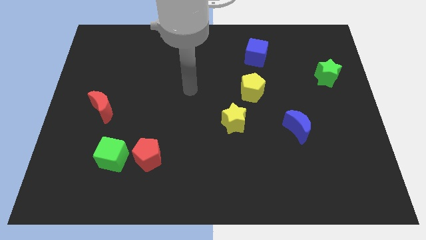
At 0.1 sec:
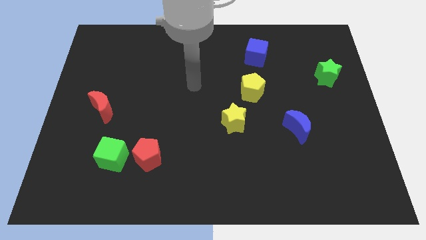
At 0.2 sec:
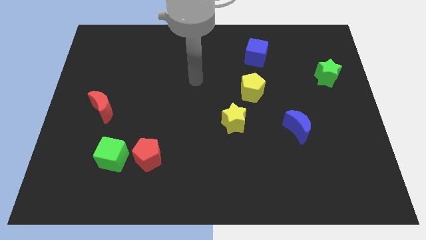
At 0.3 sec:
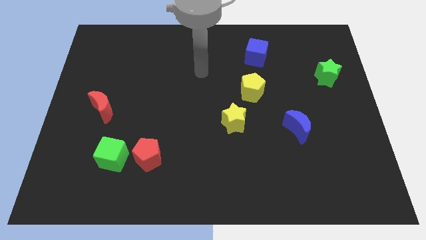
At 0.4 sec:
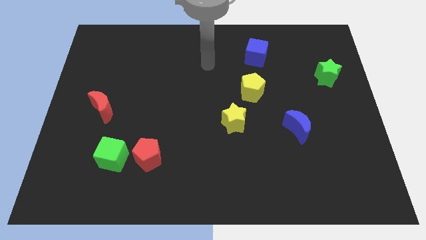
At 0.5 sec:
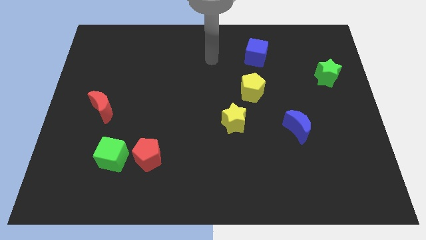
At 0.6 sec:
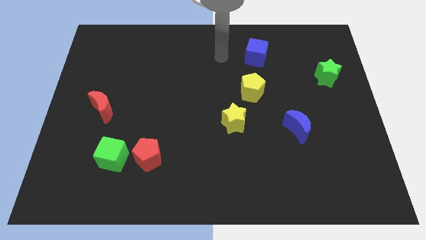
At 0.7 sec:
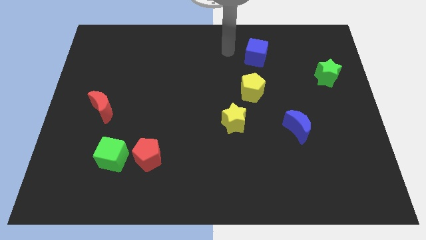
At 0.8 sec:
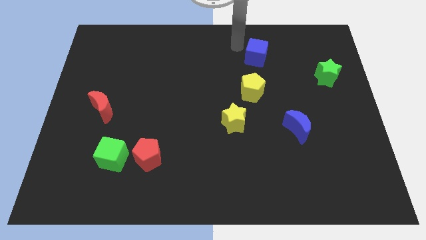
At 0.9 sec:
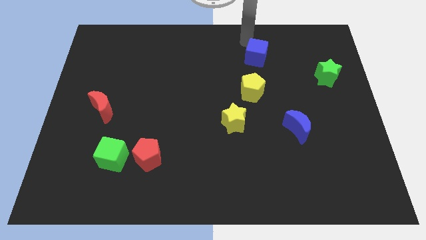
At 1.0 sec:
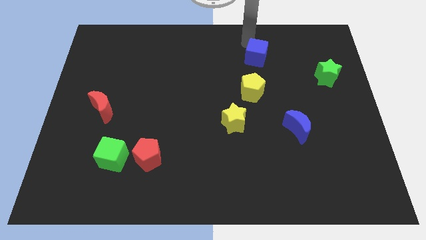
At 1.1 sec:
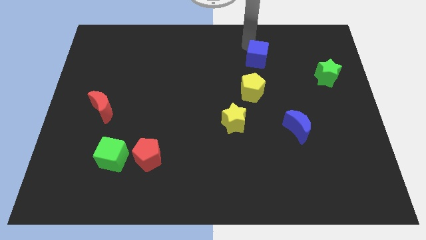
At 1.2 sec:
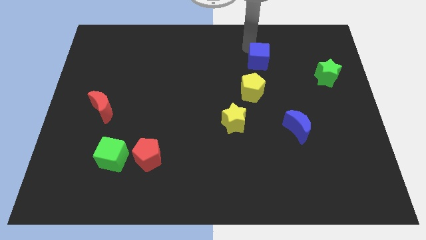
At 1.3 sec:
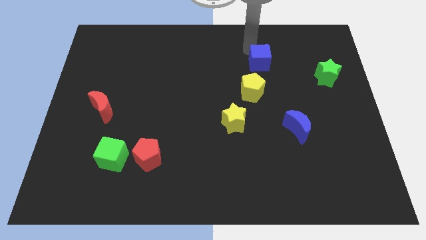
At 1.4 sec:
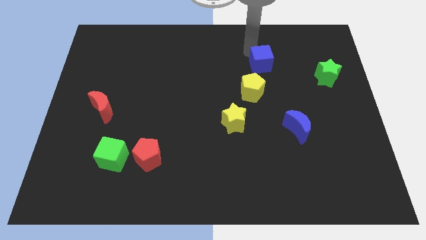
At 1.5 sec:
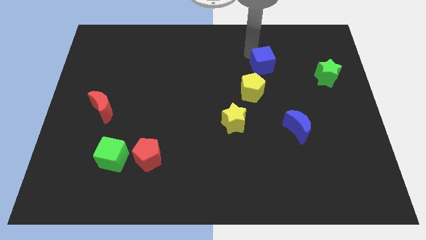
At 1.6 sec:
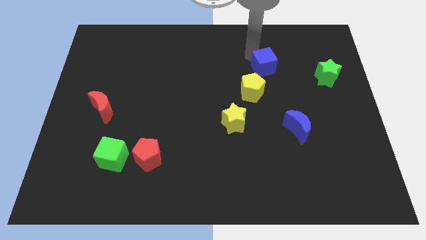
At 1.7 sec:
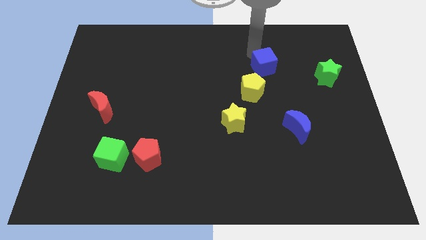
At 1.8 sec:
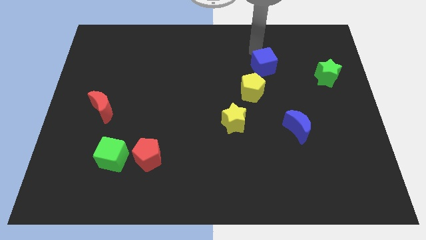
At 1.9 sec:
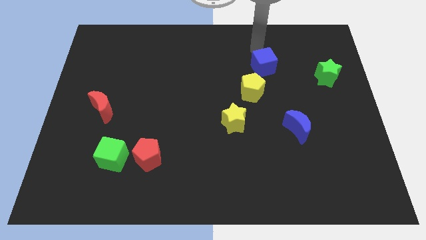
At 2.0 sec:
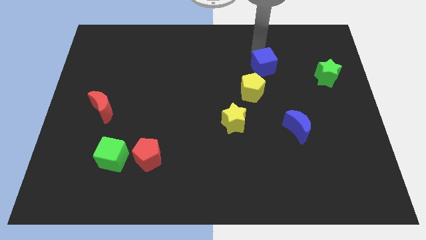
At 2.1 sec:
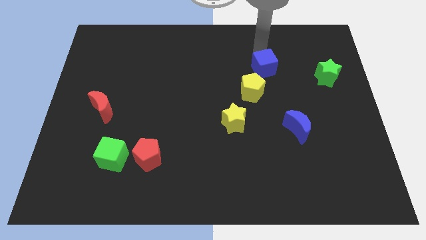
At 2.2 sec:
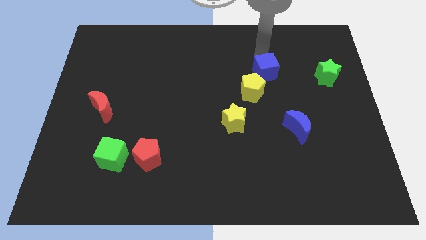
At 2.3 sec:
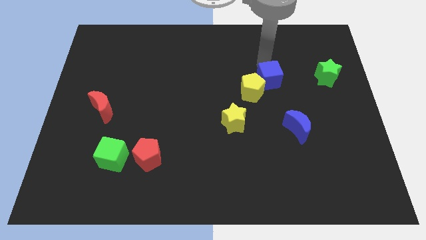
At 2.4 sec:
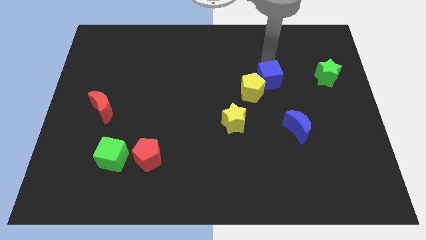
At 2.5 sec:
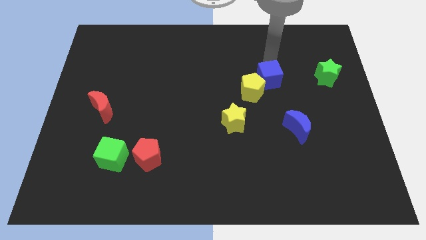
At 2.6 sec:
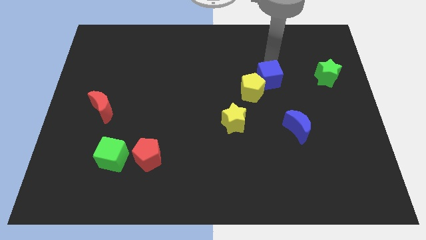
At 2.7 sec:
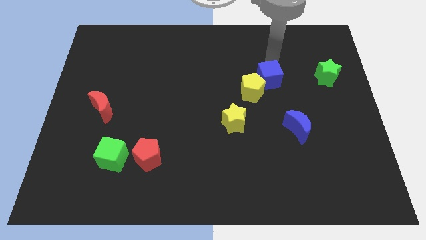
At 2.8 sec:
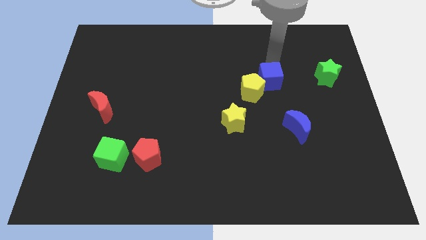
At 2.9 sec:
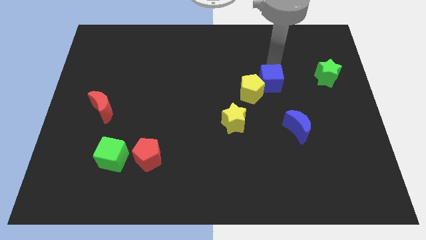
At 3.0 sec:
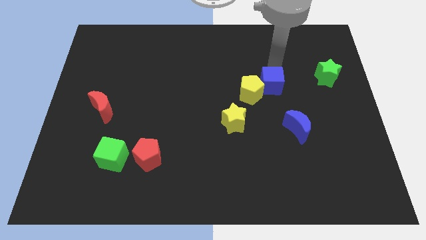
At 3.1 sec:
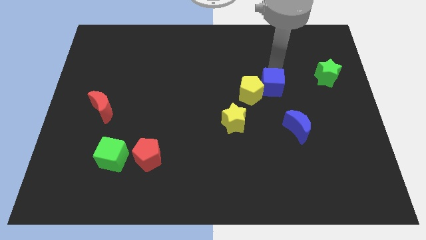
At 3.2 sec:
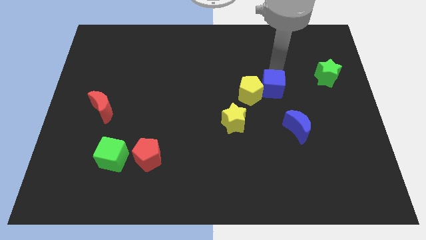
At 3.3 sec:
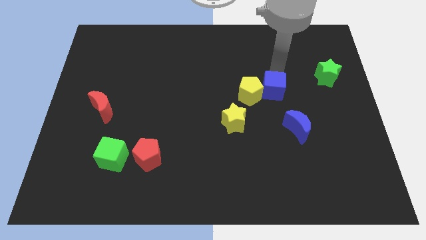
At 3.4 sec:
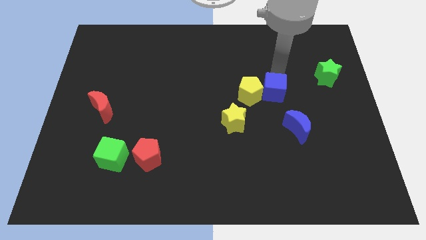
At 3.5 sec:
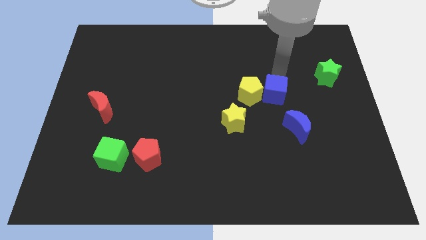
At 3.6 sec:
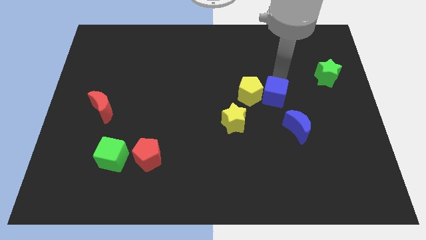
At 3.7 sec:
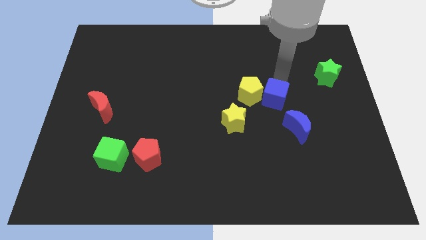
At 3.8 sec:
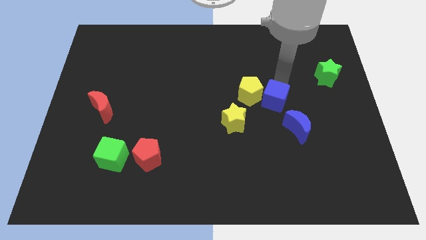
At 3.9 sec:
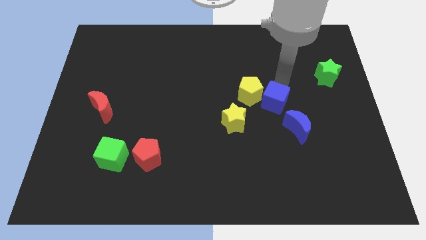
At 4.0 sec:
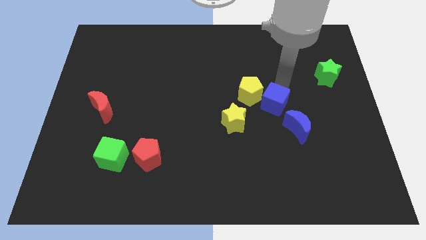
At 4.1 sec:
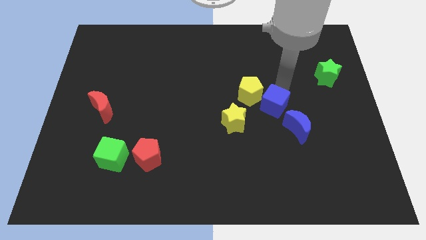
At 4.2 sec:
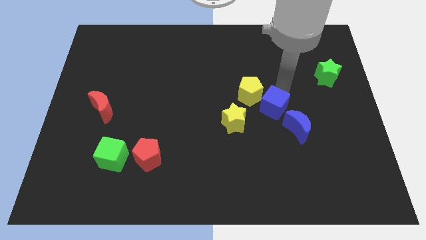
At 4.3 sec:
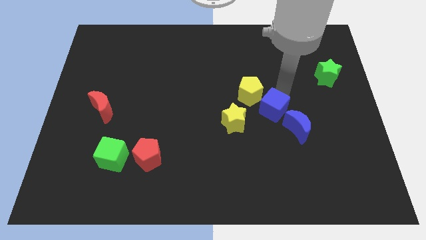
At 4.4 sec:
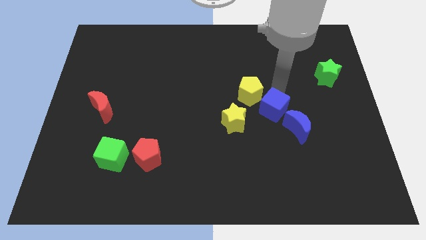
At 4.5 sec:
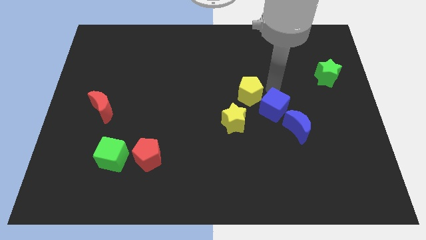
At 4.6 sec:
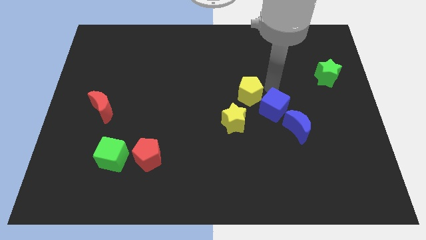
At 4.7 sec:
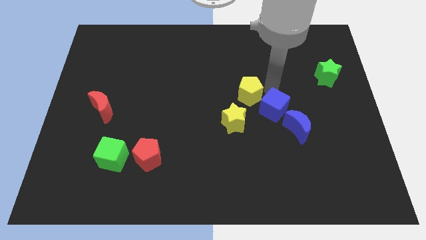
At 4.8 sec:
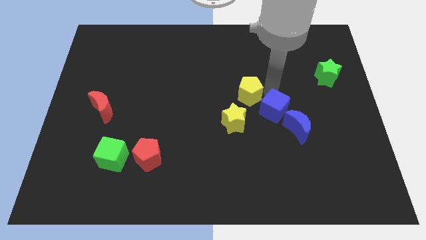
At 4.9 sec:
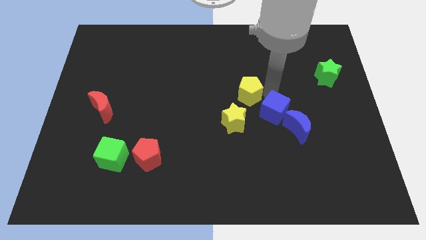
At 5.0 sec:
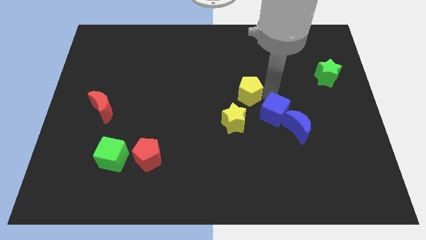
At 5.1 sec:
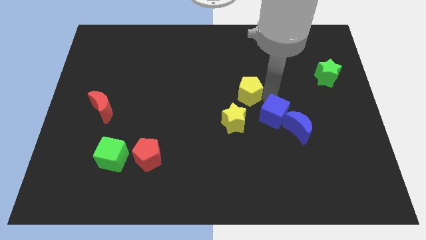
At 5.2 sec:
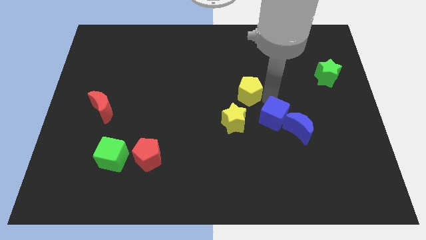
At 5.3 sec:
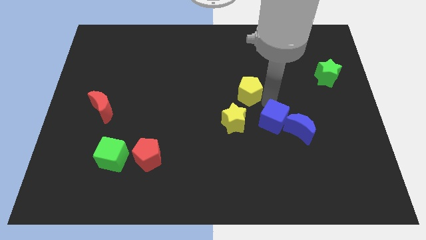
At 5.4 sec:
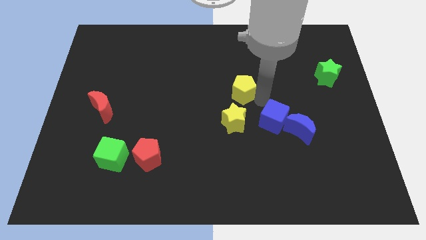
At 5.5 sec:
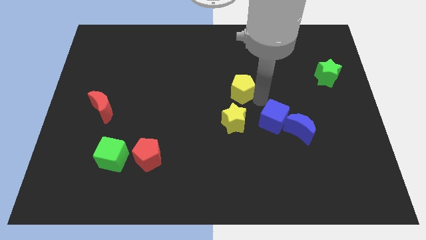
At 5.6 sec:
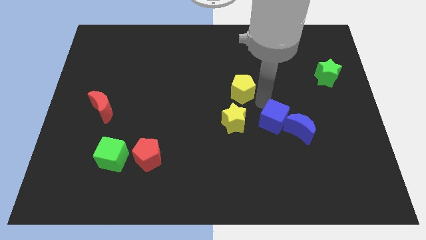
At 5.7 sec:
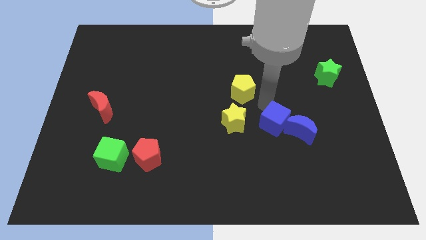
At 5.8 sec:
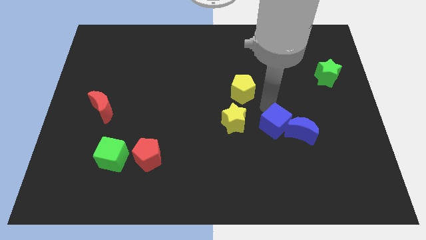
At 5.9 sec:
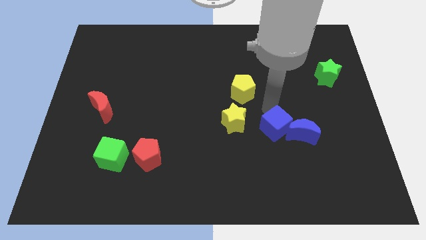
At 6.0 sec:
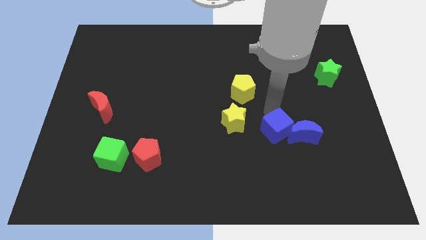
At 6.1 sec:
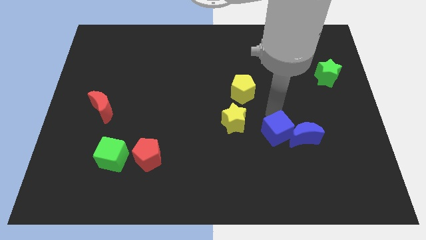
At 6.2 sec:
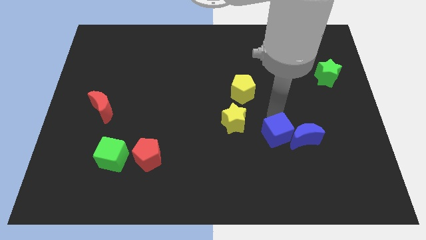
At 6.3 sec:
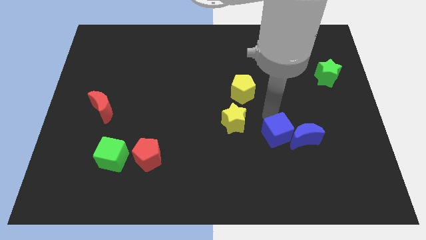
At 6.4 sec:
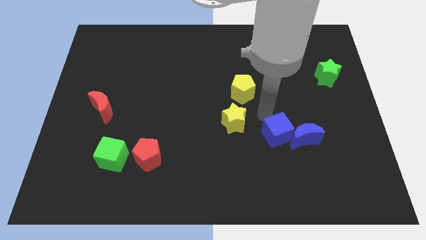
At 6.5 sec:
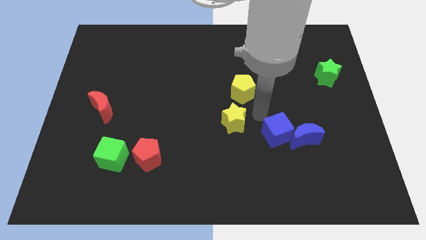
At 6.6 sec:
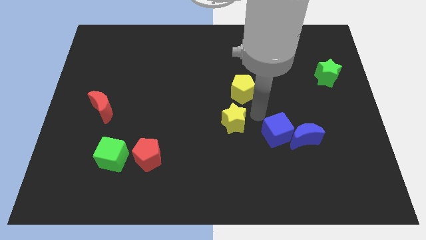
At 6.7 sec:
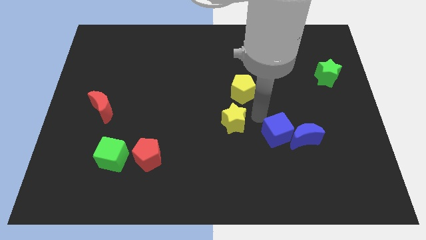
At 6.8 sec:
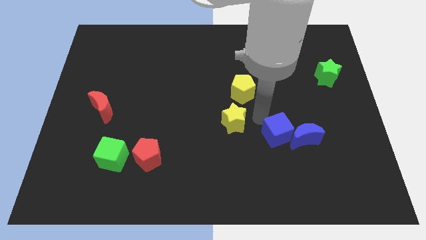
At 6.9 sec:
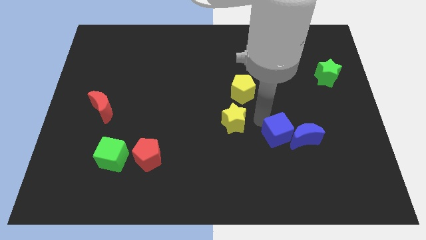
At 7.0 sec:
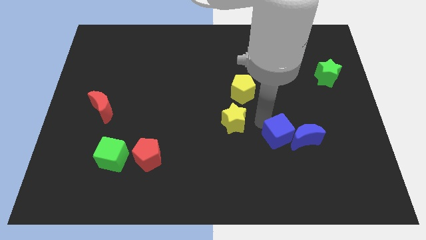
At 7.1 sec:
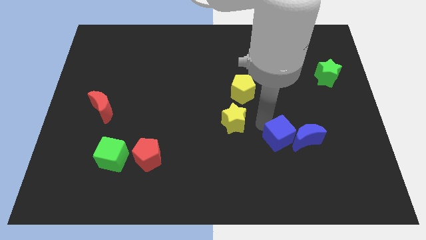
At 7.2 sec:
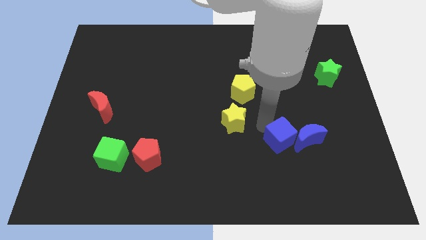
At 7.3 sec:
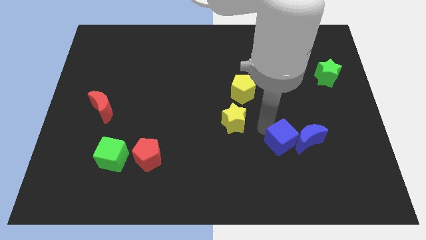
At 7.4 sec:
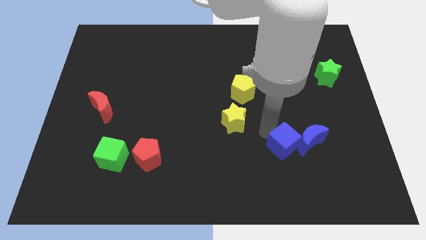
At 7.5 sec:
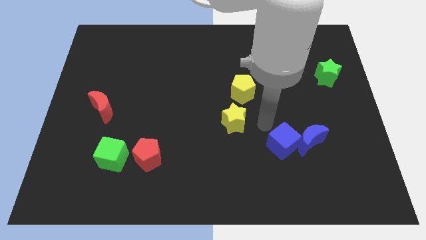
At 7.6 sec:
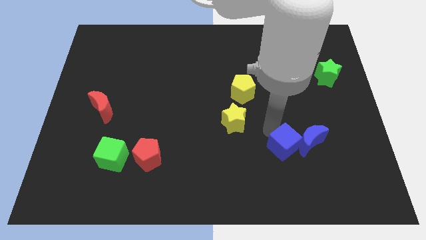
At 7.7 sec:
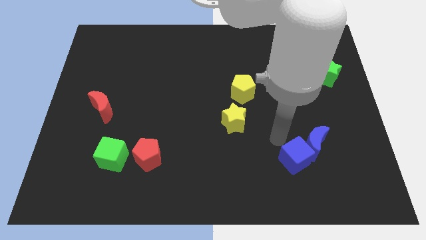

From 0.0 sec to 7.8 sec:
put the blue cube below the blue moon
